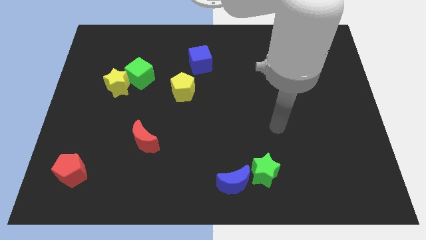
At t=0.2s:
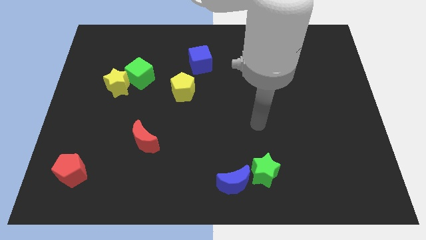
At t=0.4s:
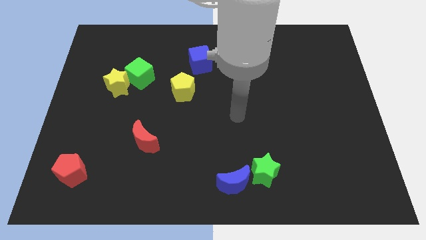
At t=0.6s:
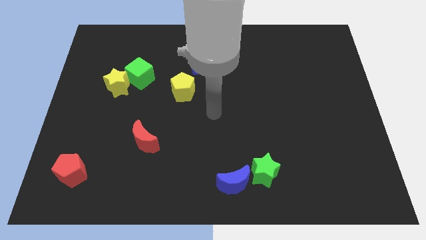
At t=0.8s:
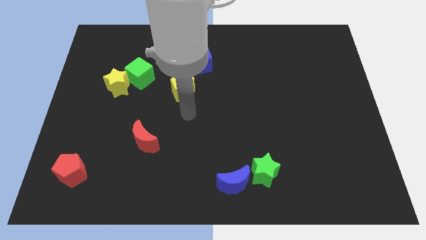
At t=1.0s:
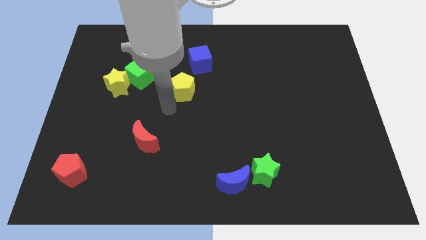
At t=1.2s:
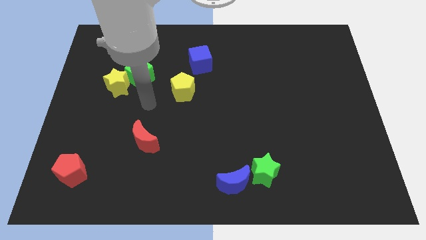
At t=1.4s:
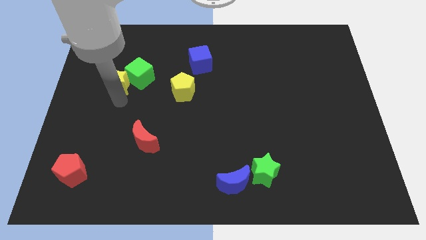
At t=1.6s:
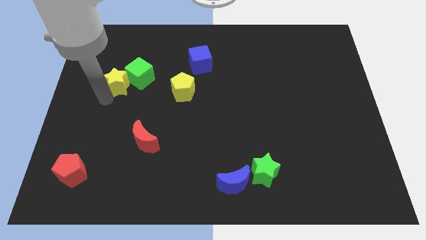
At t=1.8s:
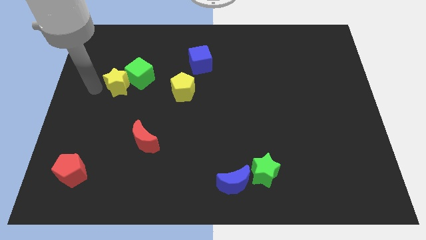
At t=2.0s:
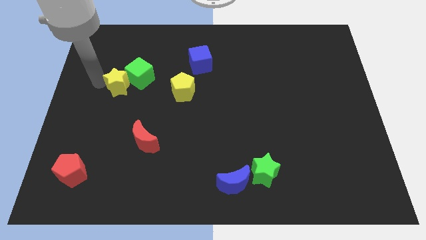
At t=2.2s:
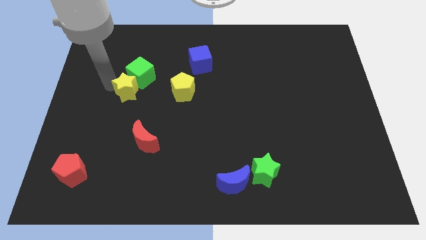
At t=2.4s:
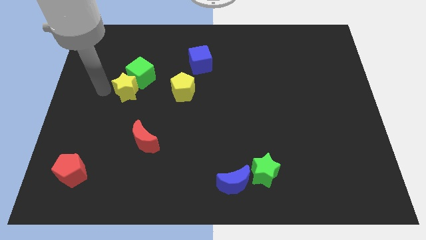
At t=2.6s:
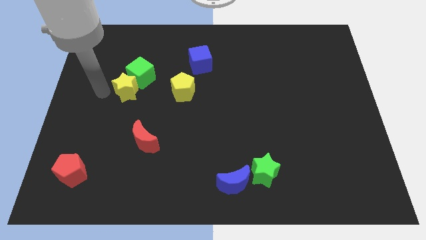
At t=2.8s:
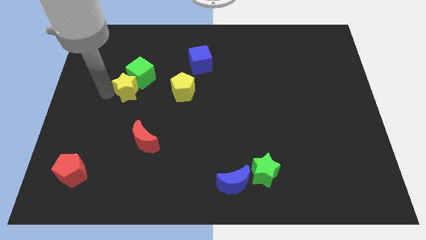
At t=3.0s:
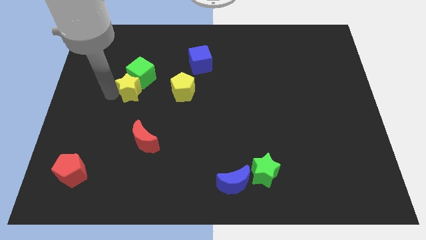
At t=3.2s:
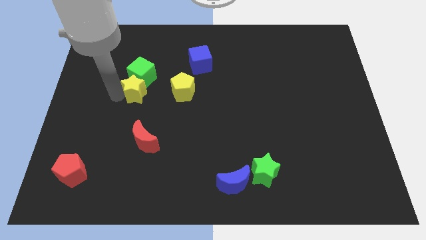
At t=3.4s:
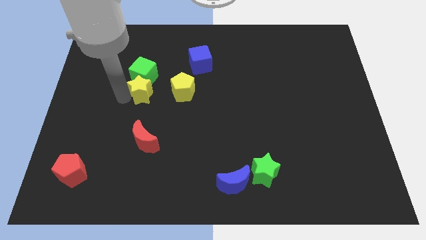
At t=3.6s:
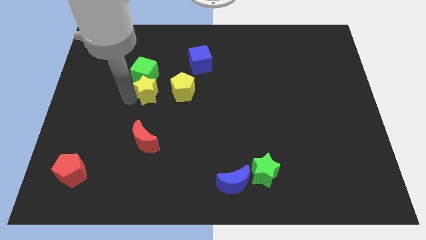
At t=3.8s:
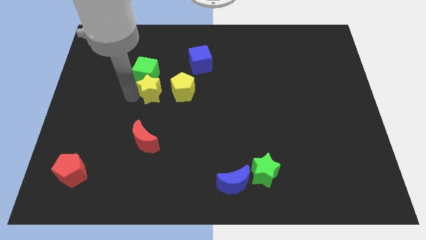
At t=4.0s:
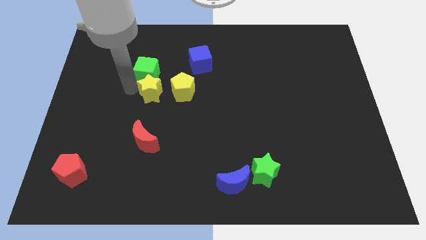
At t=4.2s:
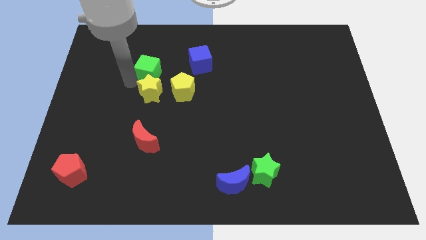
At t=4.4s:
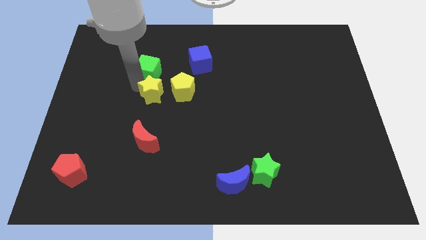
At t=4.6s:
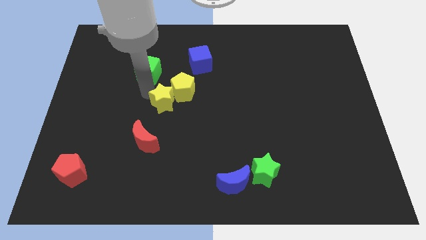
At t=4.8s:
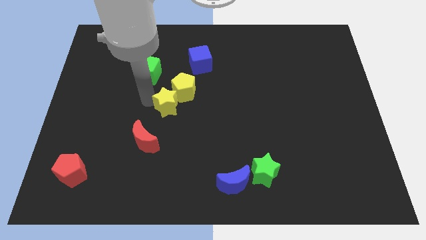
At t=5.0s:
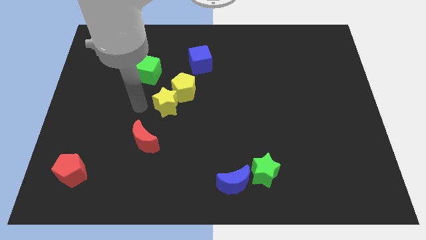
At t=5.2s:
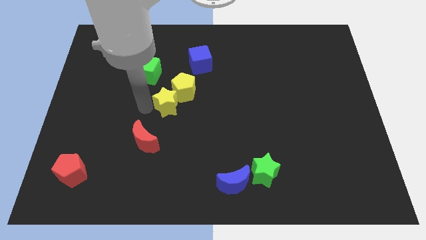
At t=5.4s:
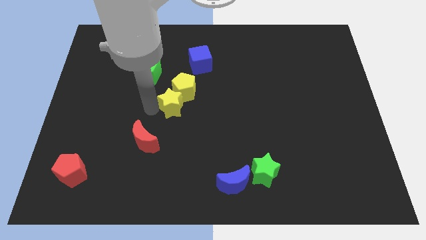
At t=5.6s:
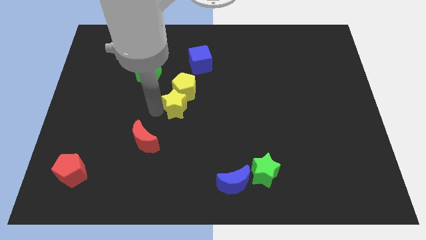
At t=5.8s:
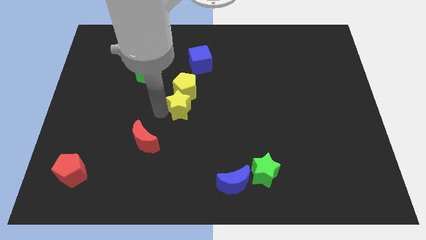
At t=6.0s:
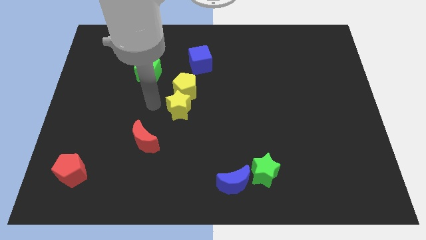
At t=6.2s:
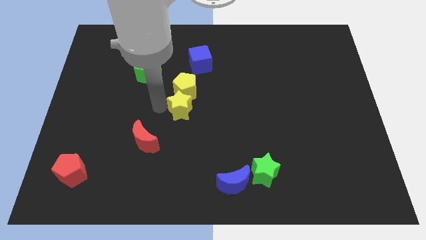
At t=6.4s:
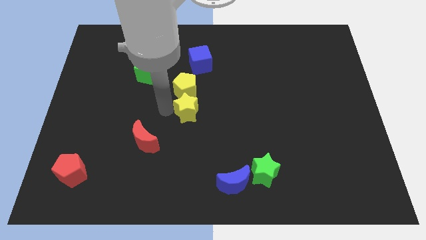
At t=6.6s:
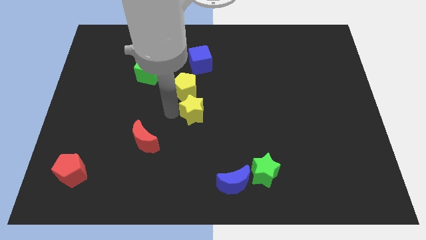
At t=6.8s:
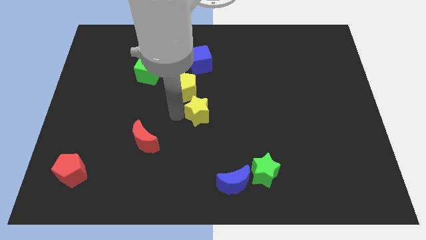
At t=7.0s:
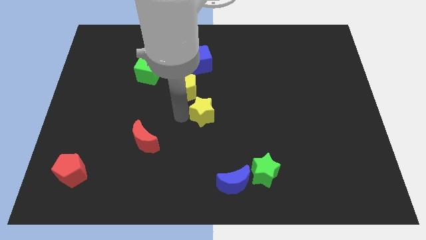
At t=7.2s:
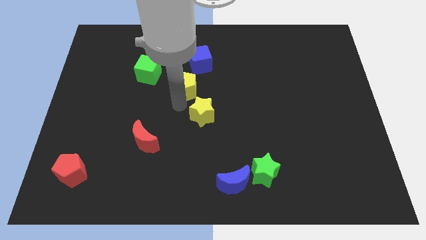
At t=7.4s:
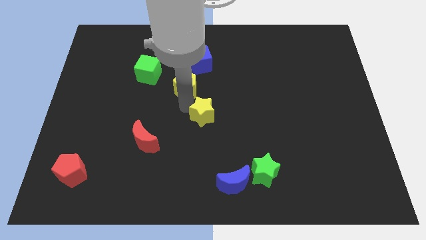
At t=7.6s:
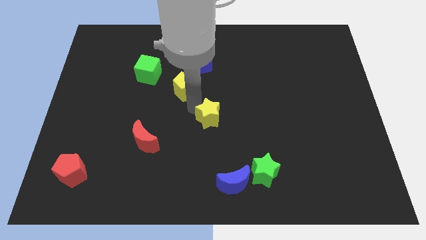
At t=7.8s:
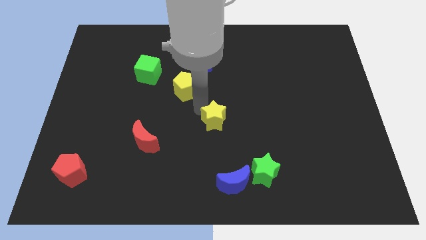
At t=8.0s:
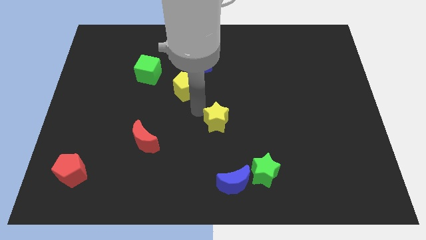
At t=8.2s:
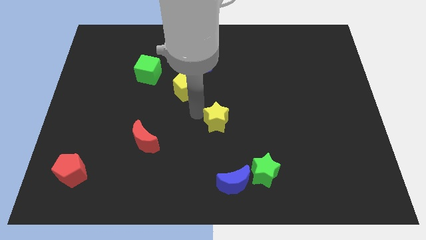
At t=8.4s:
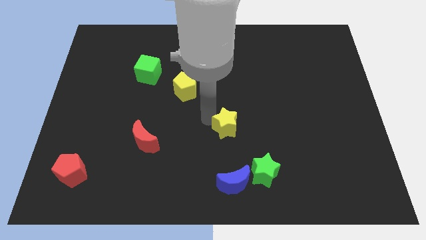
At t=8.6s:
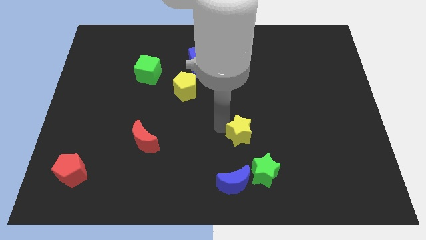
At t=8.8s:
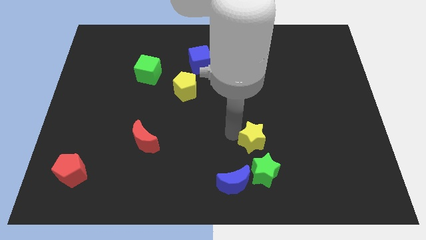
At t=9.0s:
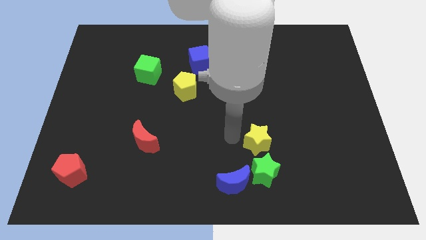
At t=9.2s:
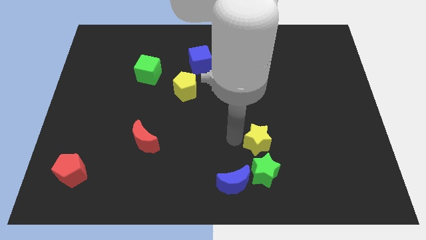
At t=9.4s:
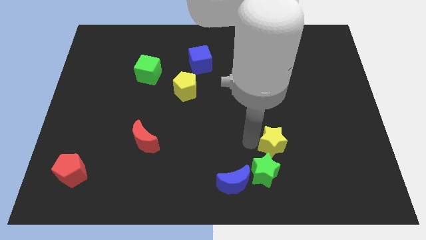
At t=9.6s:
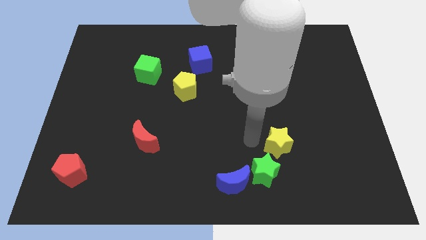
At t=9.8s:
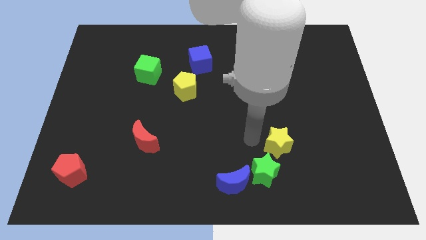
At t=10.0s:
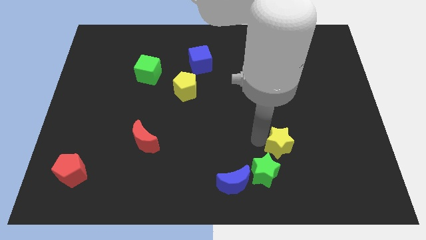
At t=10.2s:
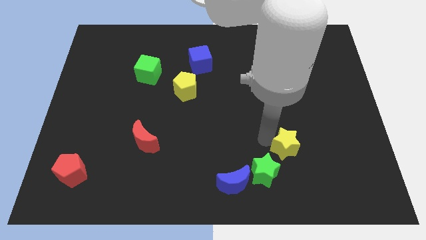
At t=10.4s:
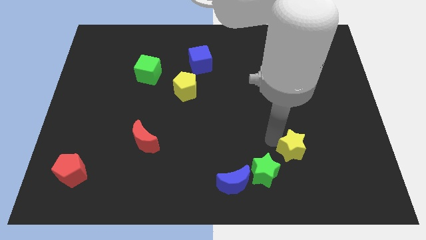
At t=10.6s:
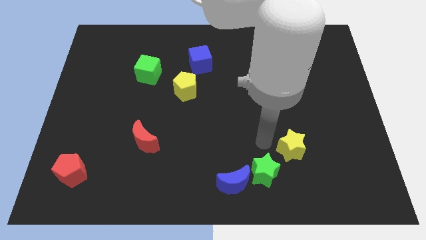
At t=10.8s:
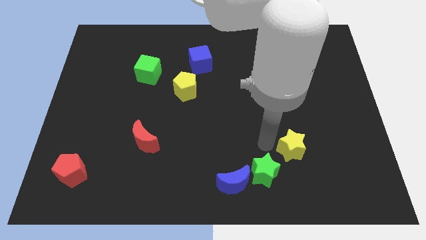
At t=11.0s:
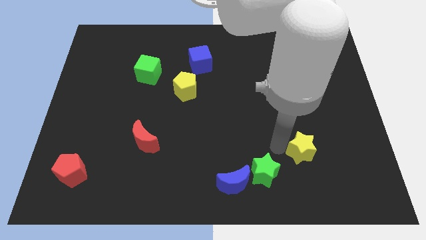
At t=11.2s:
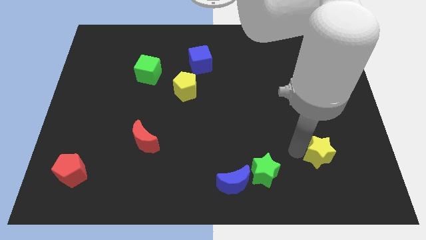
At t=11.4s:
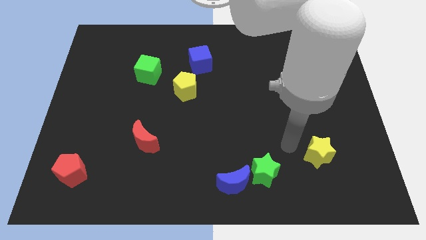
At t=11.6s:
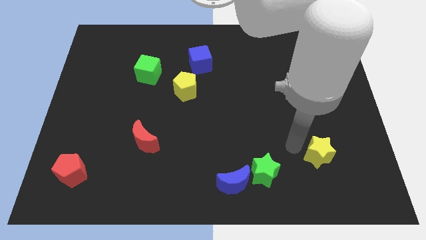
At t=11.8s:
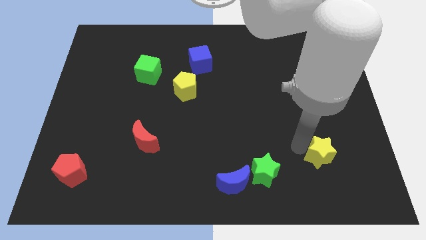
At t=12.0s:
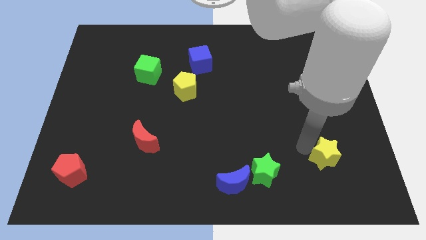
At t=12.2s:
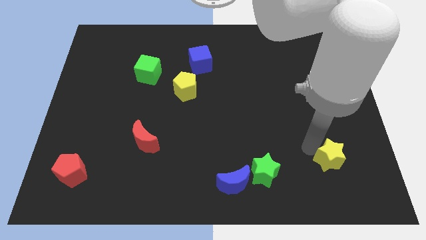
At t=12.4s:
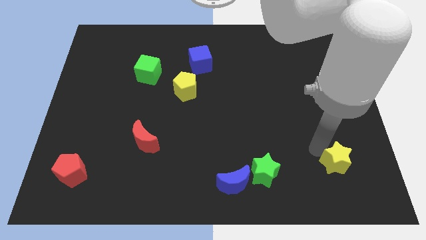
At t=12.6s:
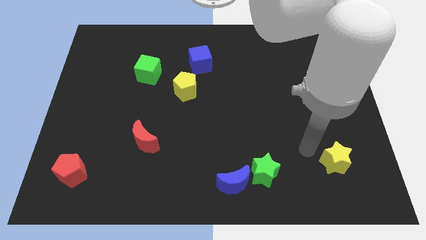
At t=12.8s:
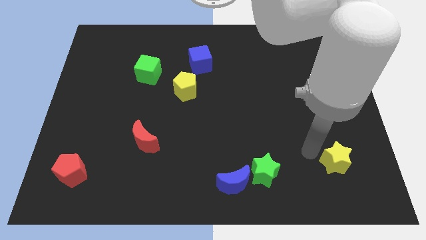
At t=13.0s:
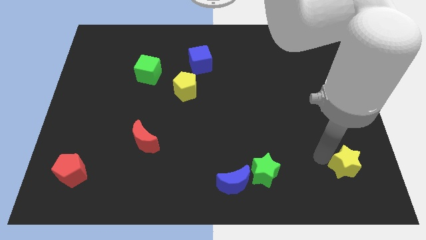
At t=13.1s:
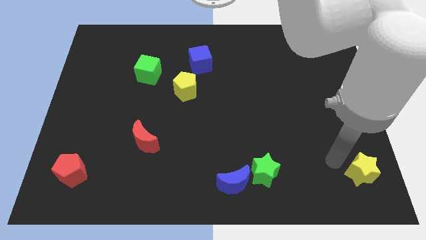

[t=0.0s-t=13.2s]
put the yellow star to the bottom right of the board
